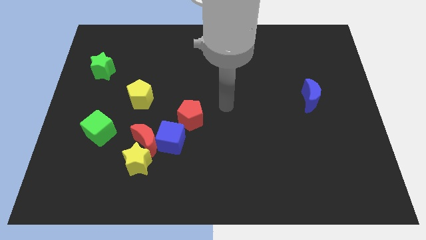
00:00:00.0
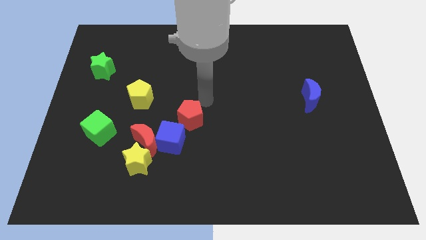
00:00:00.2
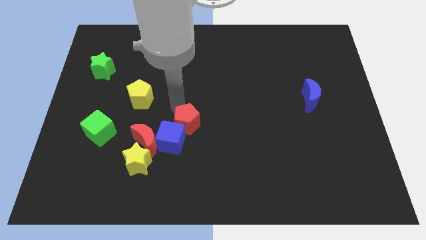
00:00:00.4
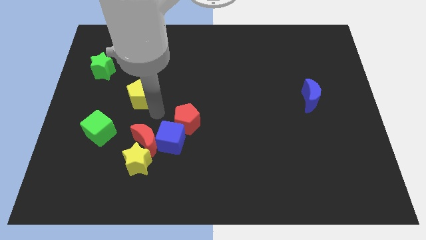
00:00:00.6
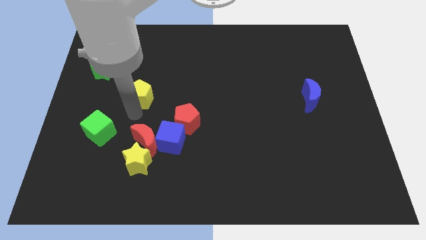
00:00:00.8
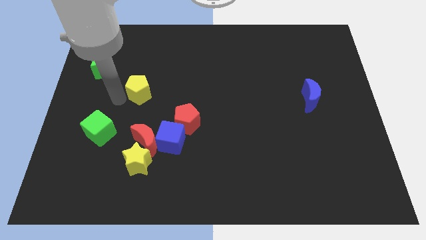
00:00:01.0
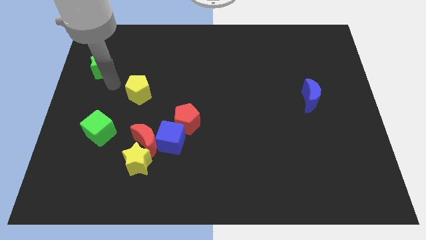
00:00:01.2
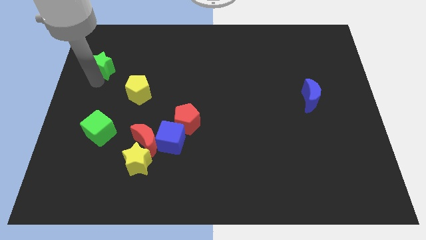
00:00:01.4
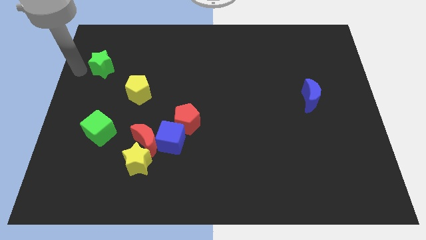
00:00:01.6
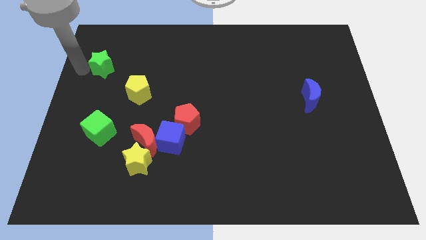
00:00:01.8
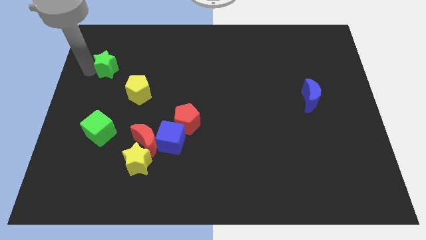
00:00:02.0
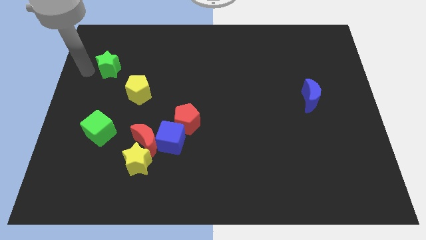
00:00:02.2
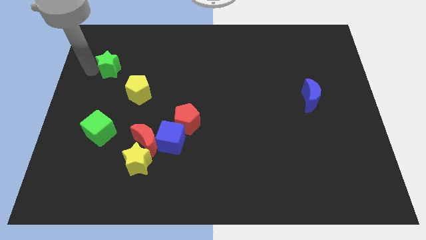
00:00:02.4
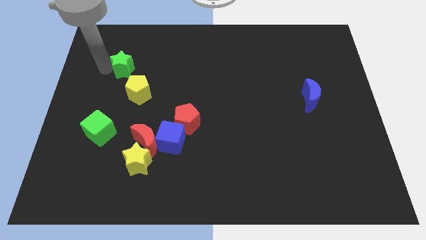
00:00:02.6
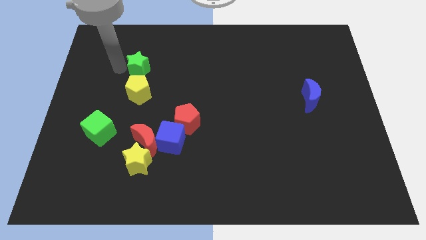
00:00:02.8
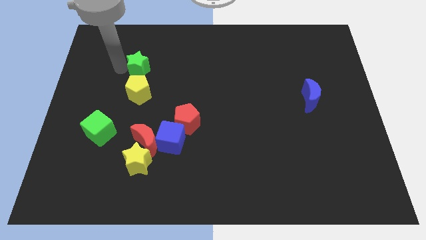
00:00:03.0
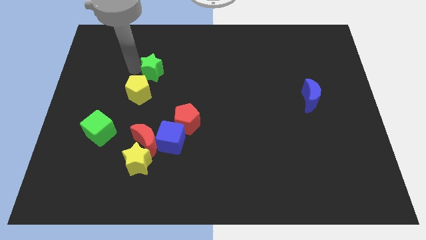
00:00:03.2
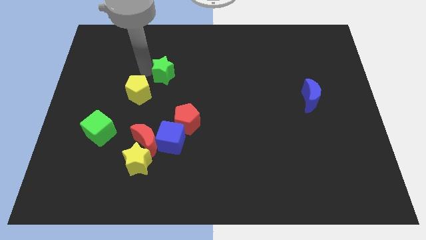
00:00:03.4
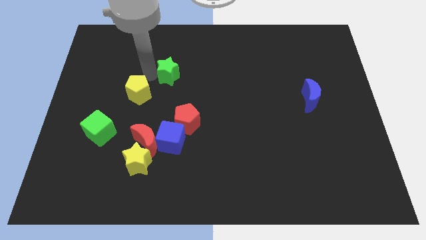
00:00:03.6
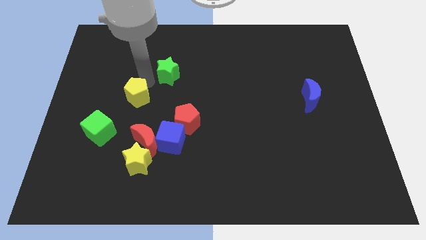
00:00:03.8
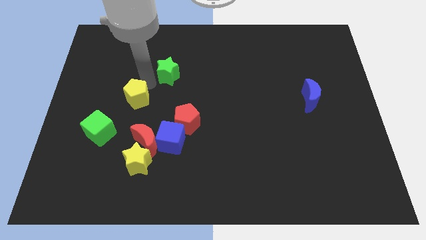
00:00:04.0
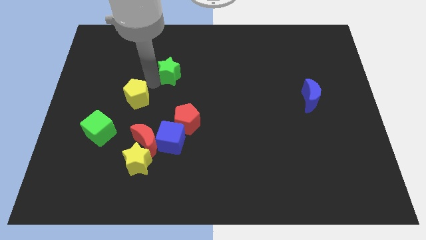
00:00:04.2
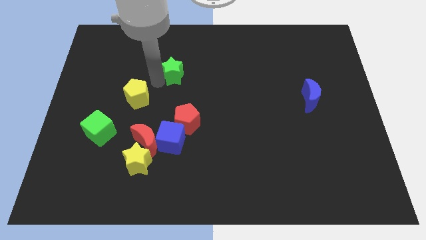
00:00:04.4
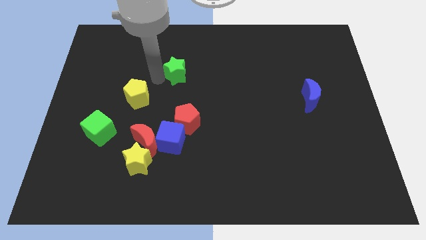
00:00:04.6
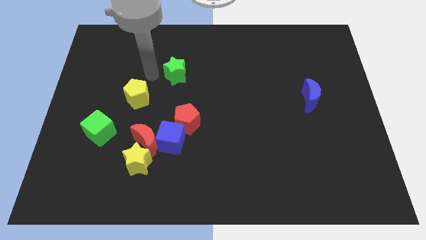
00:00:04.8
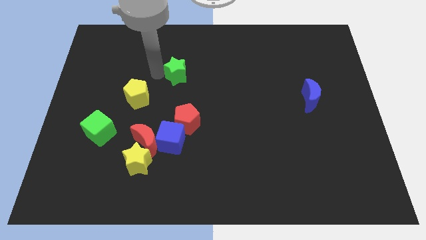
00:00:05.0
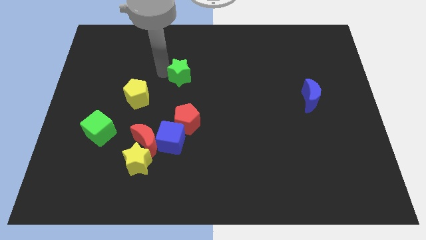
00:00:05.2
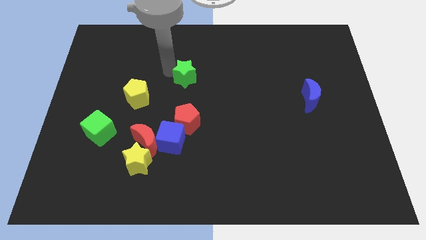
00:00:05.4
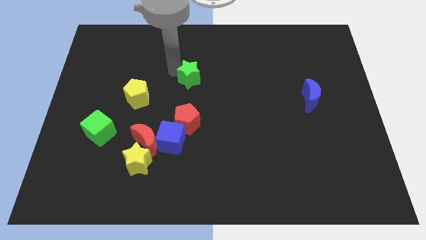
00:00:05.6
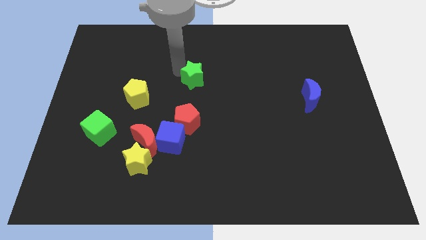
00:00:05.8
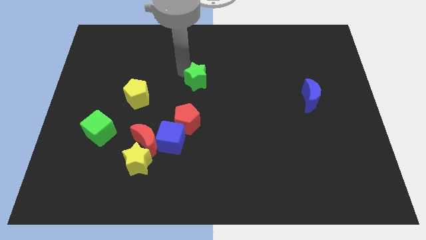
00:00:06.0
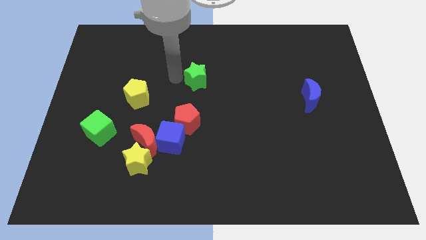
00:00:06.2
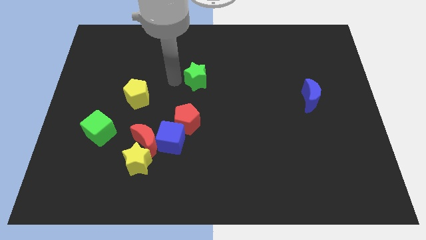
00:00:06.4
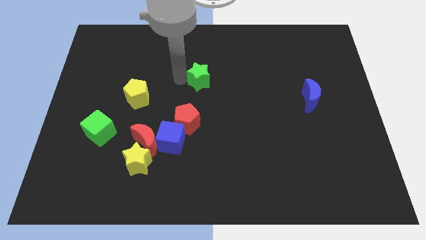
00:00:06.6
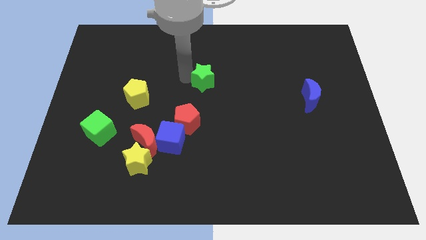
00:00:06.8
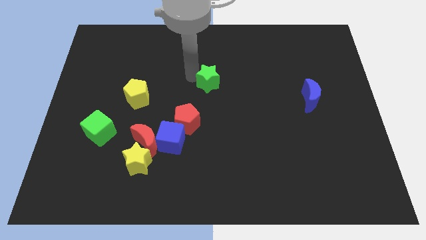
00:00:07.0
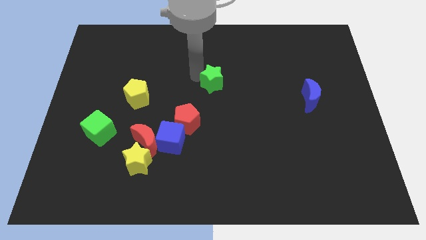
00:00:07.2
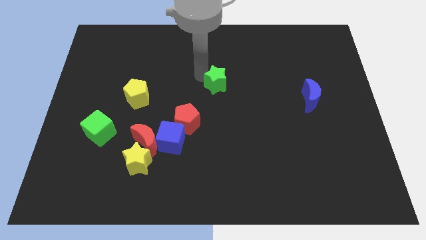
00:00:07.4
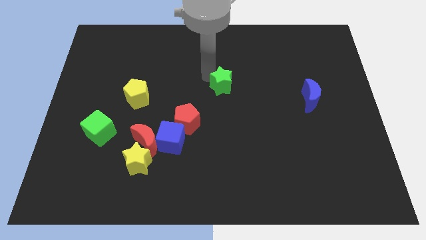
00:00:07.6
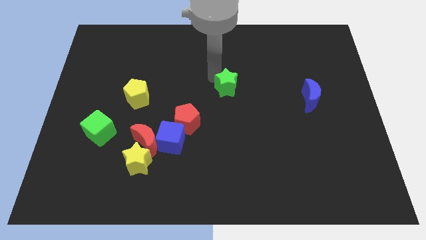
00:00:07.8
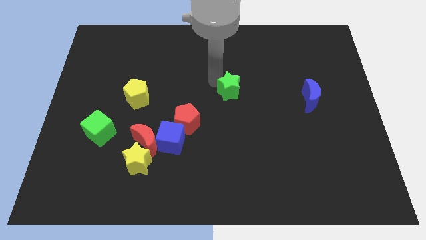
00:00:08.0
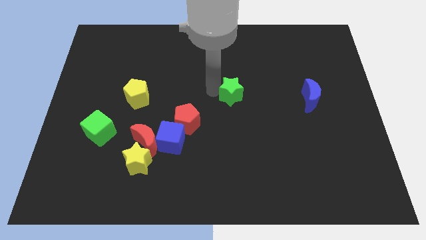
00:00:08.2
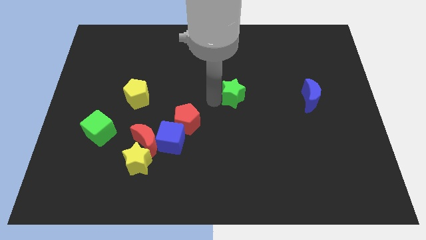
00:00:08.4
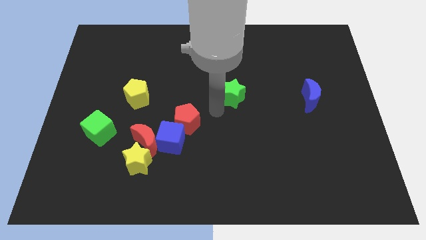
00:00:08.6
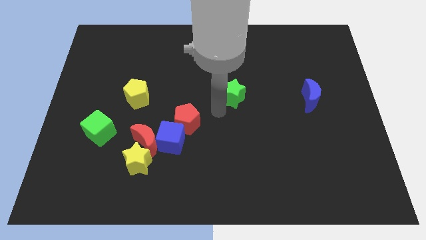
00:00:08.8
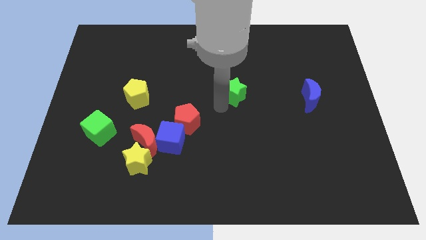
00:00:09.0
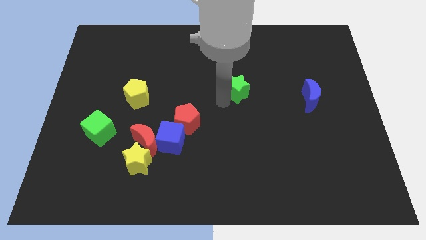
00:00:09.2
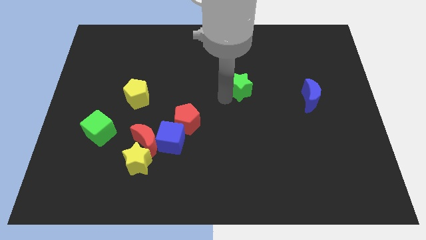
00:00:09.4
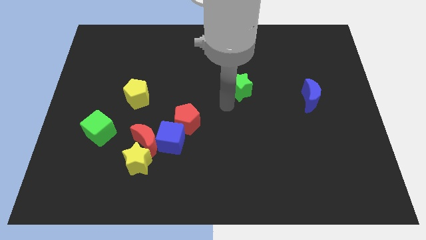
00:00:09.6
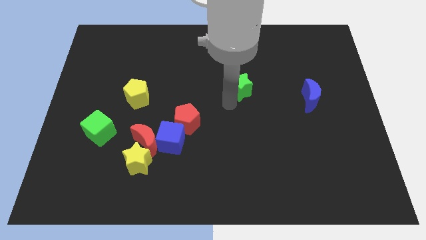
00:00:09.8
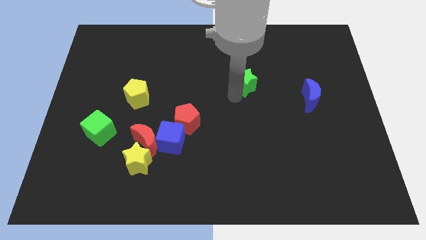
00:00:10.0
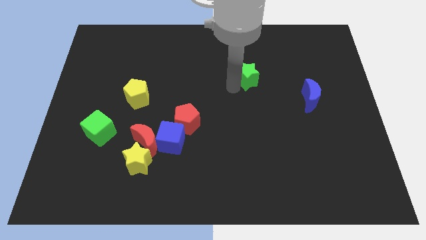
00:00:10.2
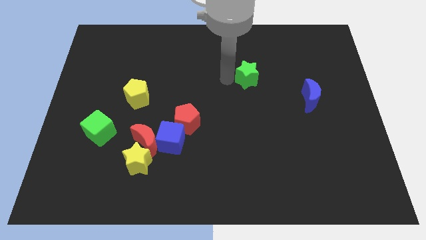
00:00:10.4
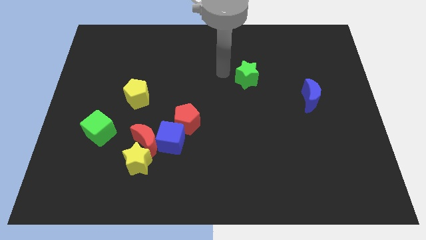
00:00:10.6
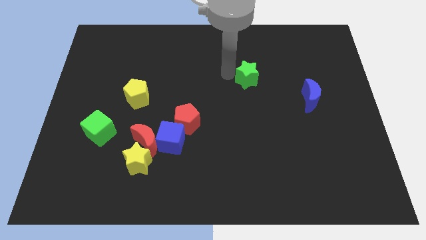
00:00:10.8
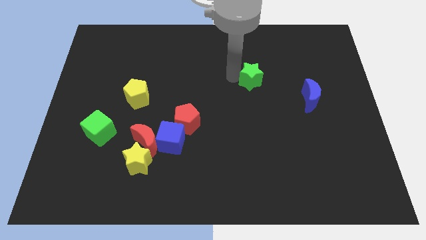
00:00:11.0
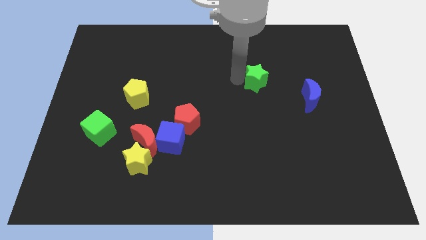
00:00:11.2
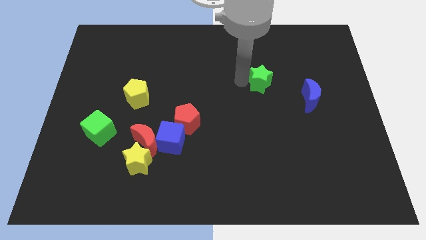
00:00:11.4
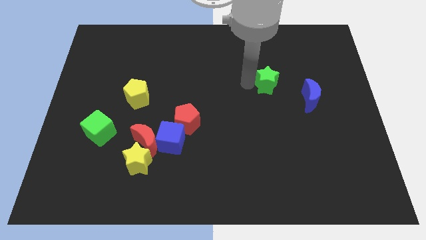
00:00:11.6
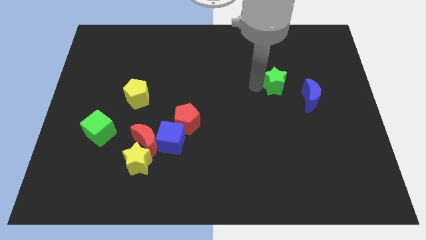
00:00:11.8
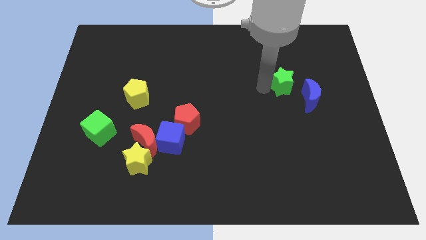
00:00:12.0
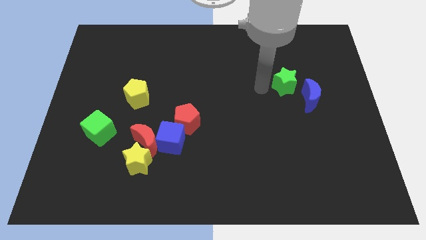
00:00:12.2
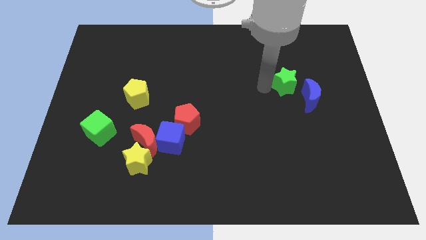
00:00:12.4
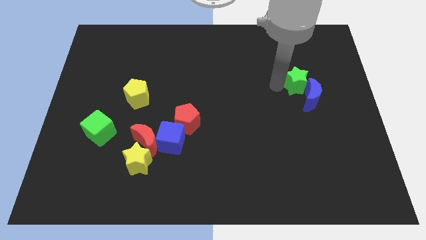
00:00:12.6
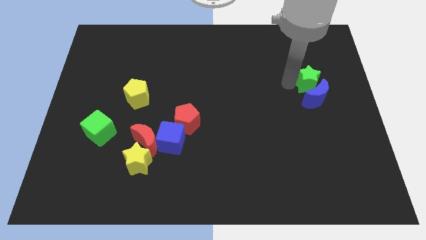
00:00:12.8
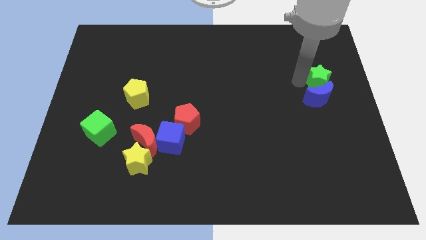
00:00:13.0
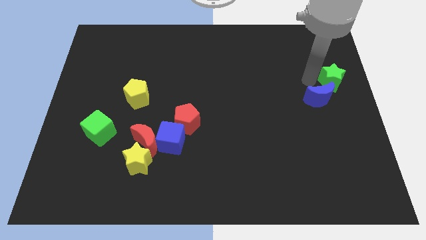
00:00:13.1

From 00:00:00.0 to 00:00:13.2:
slide the green star to the center right

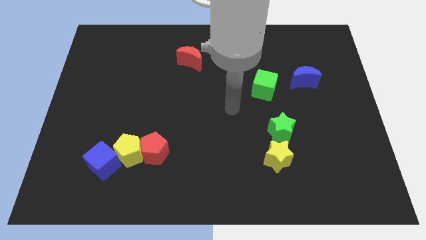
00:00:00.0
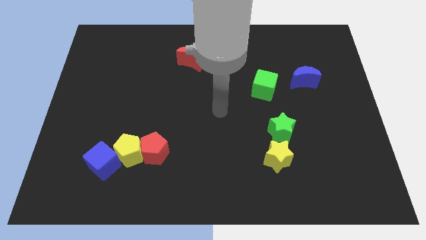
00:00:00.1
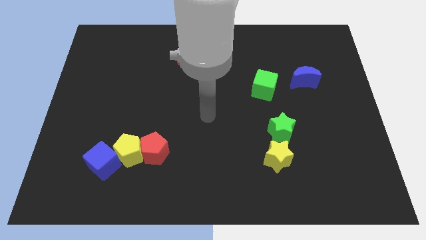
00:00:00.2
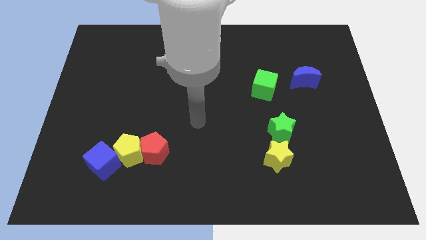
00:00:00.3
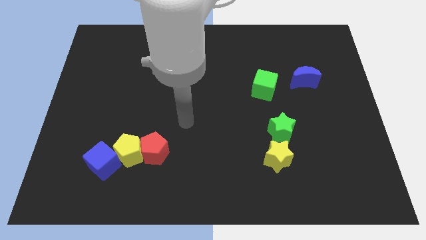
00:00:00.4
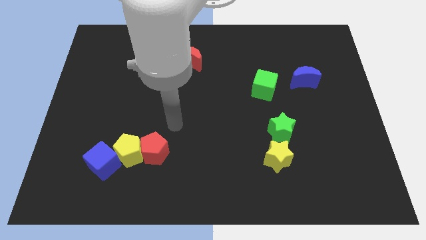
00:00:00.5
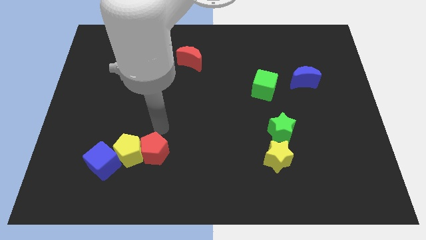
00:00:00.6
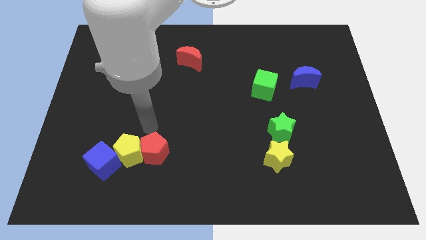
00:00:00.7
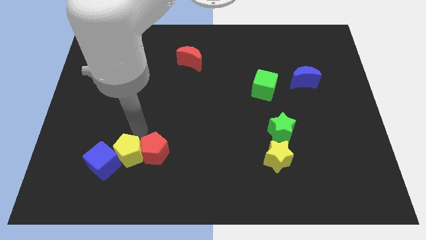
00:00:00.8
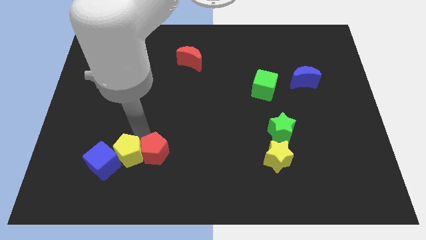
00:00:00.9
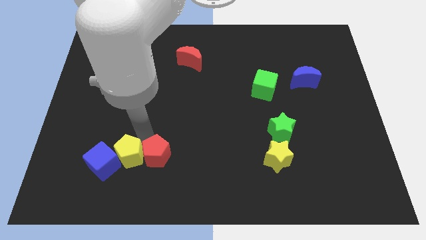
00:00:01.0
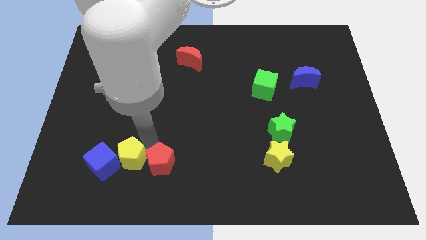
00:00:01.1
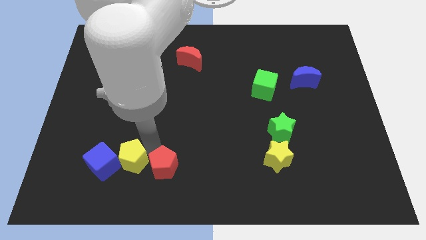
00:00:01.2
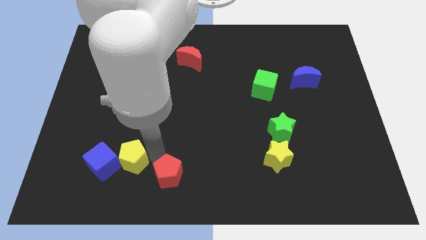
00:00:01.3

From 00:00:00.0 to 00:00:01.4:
put the red pentagon to the bottom
